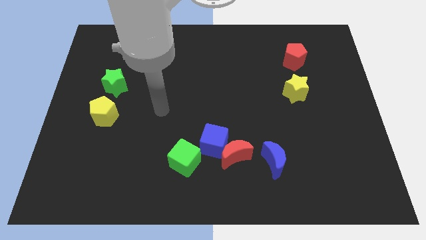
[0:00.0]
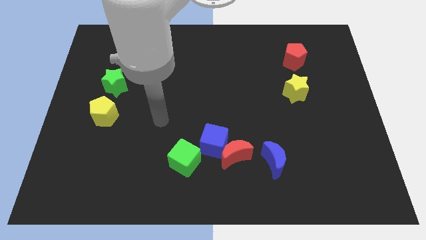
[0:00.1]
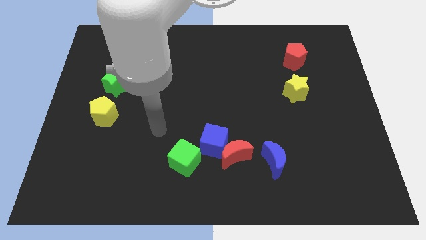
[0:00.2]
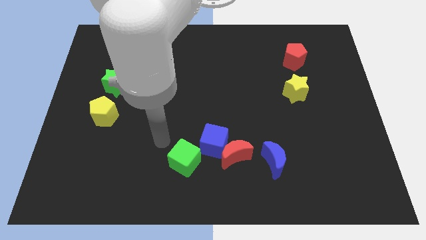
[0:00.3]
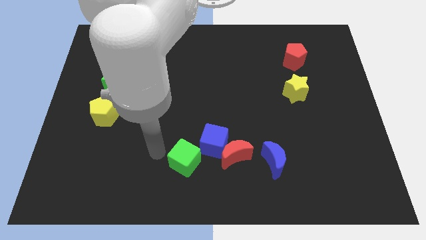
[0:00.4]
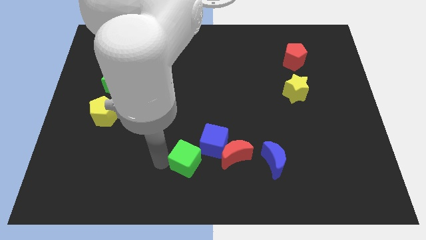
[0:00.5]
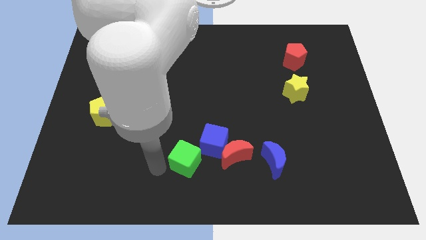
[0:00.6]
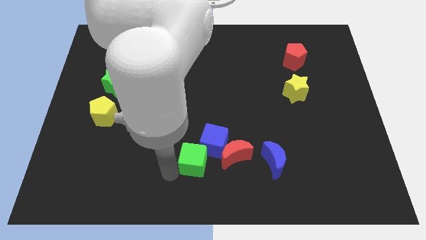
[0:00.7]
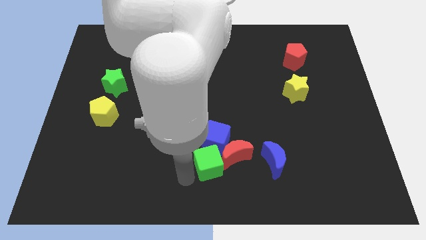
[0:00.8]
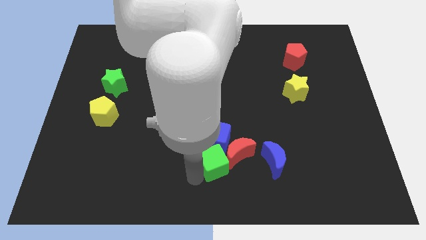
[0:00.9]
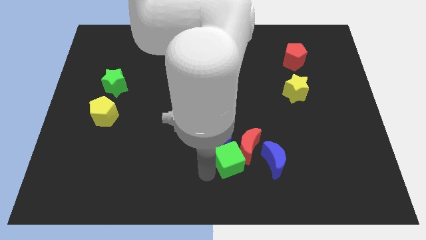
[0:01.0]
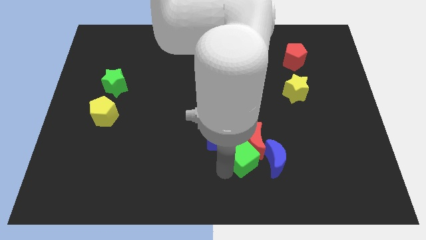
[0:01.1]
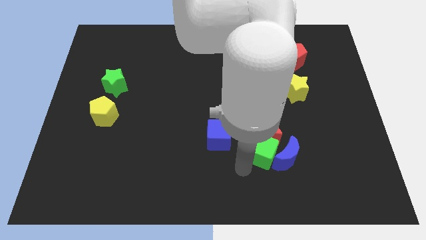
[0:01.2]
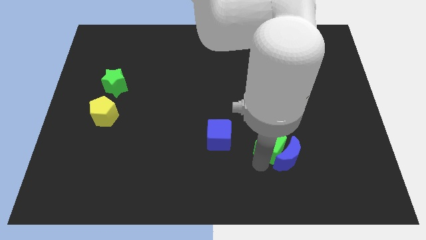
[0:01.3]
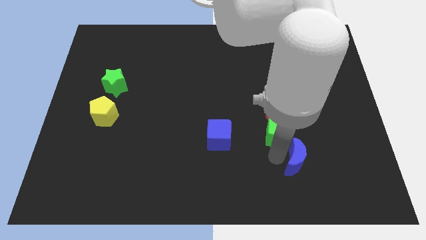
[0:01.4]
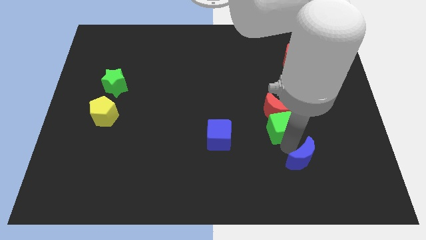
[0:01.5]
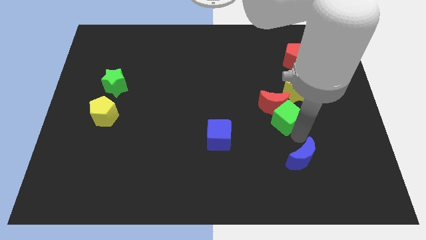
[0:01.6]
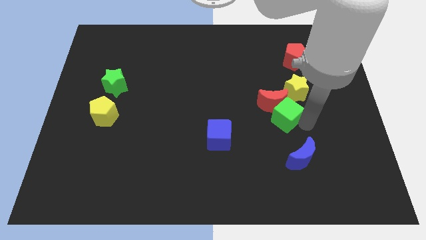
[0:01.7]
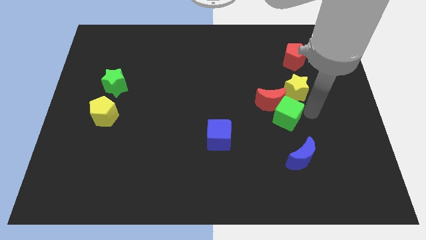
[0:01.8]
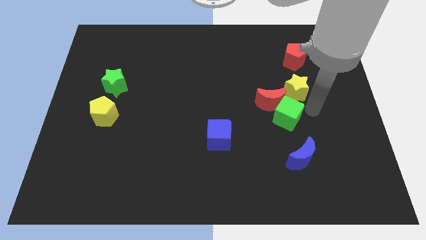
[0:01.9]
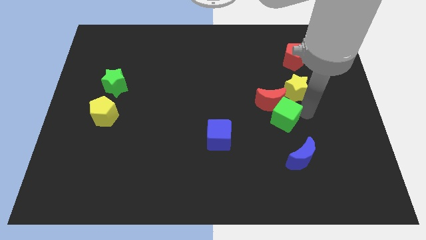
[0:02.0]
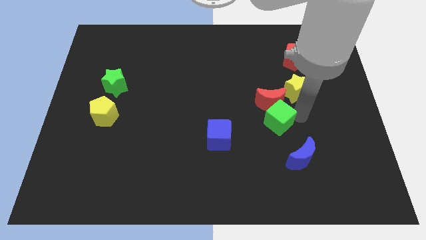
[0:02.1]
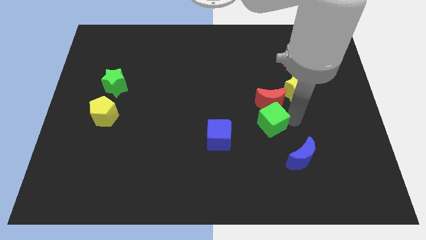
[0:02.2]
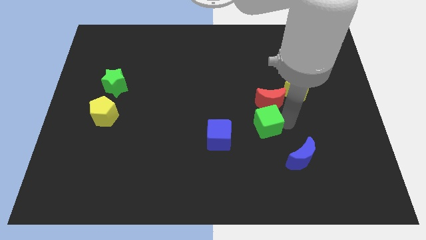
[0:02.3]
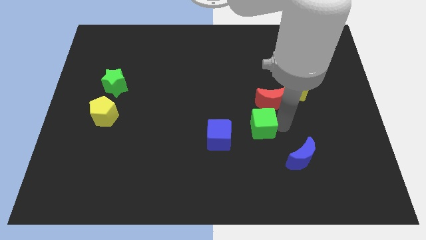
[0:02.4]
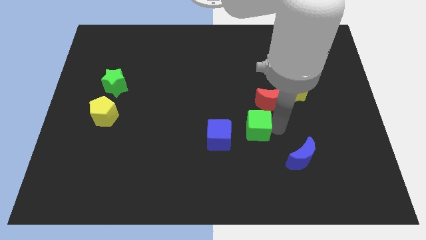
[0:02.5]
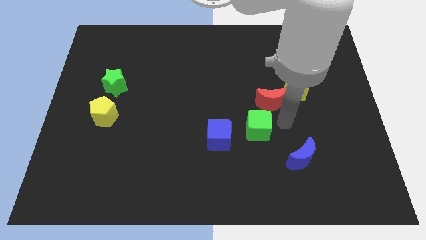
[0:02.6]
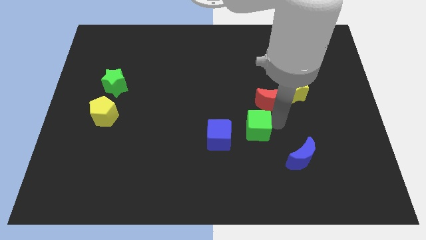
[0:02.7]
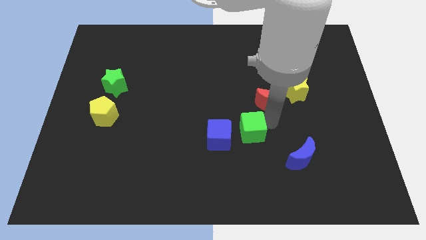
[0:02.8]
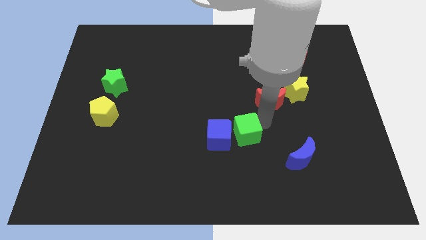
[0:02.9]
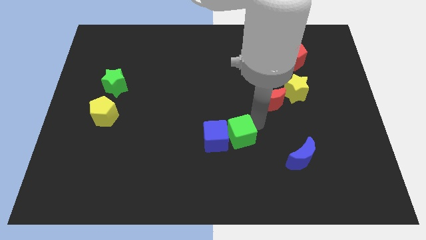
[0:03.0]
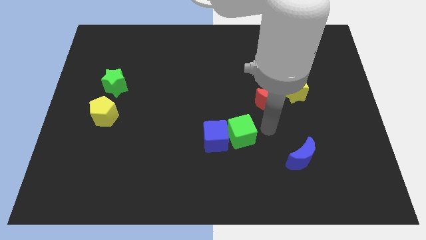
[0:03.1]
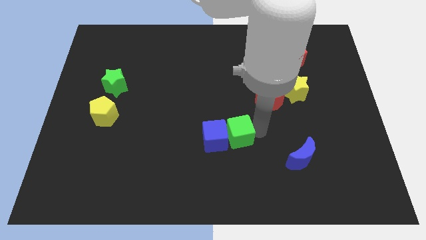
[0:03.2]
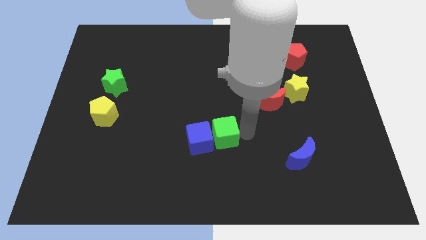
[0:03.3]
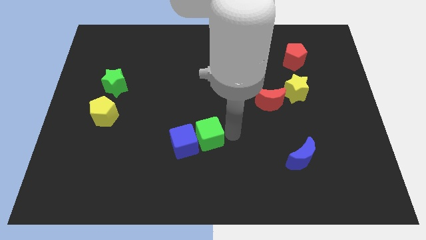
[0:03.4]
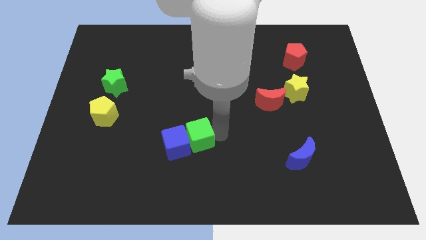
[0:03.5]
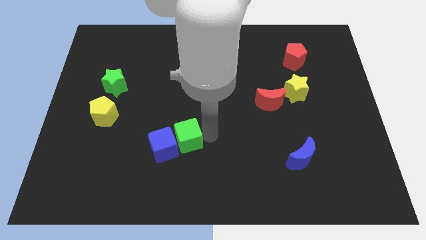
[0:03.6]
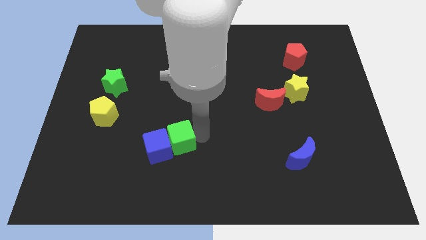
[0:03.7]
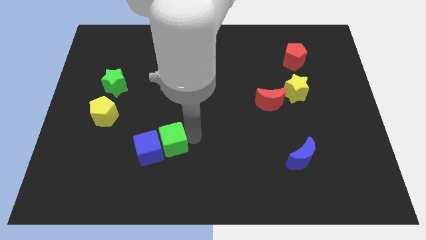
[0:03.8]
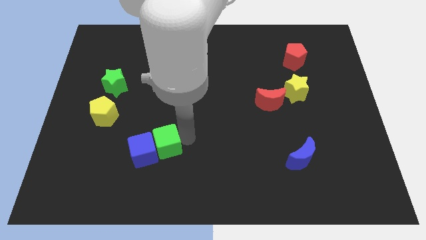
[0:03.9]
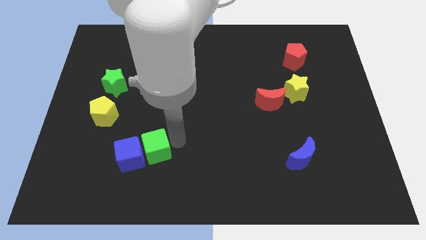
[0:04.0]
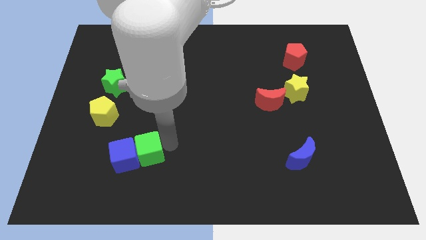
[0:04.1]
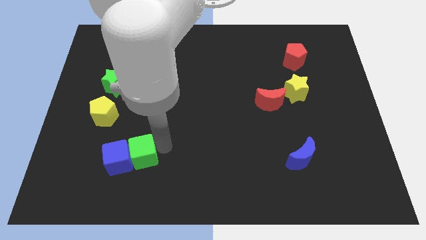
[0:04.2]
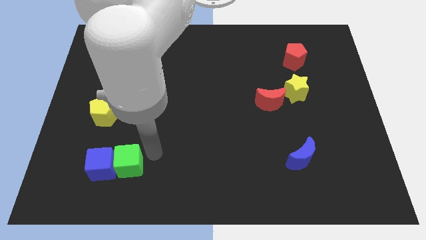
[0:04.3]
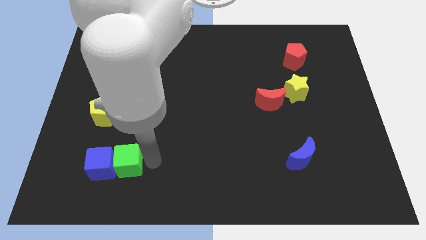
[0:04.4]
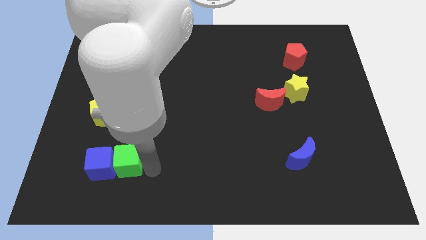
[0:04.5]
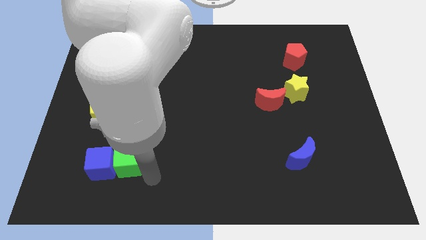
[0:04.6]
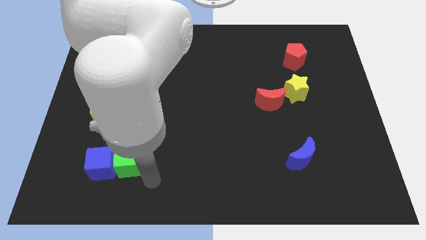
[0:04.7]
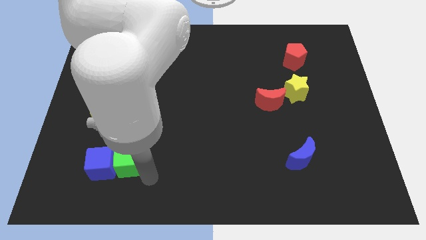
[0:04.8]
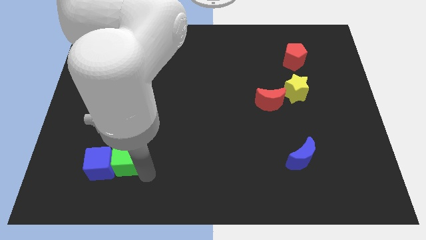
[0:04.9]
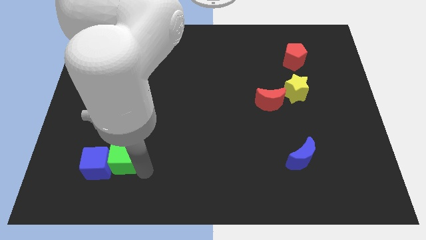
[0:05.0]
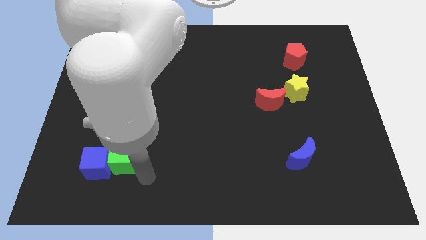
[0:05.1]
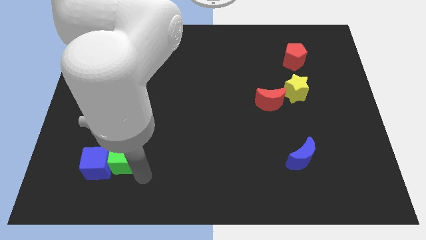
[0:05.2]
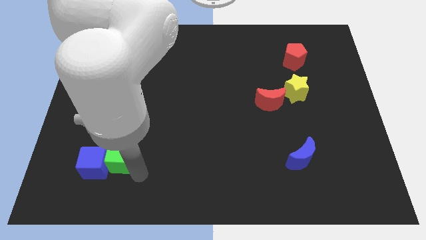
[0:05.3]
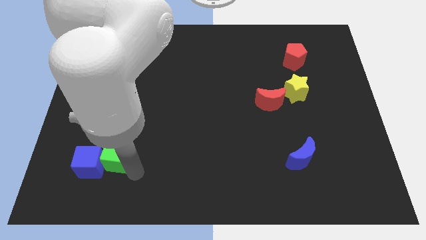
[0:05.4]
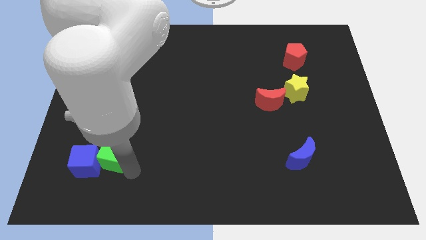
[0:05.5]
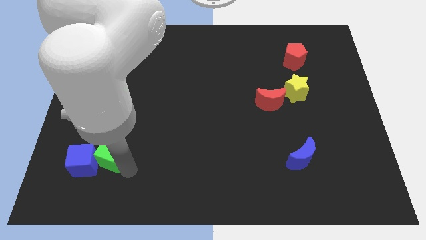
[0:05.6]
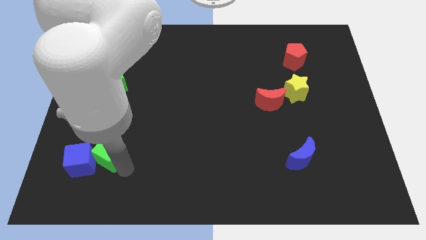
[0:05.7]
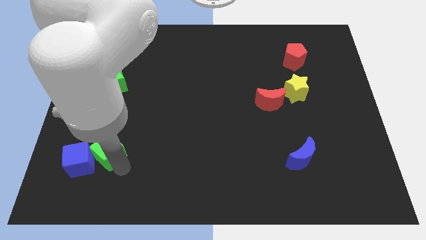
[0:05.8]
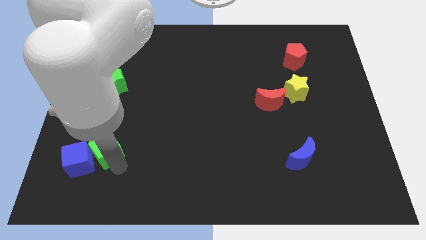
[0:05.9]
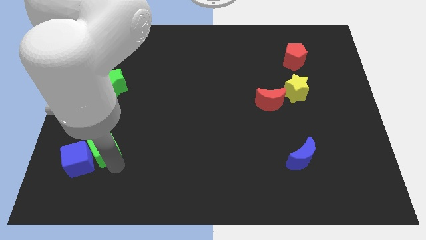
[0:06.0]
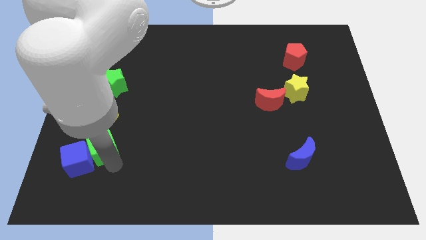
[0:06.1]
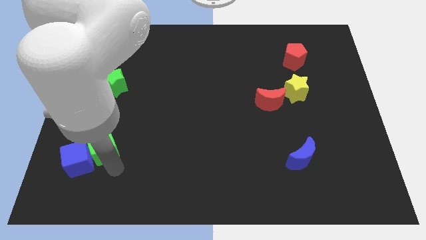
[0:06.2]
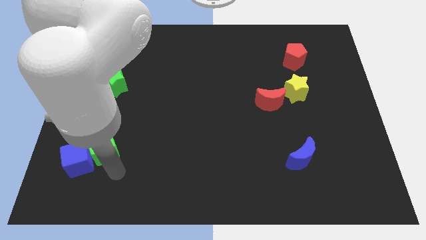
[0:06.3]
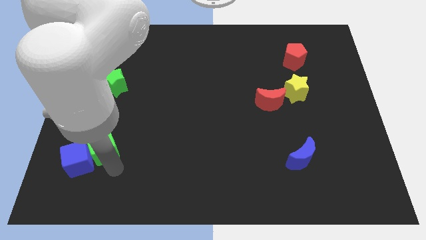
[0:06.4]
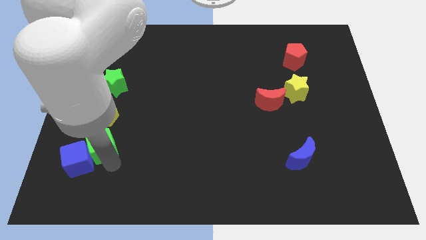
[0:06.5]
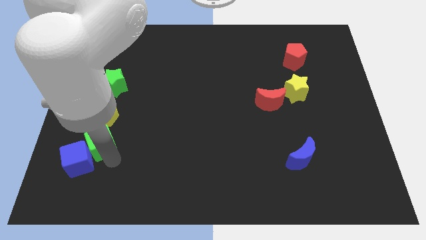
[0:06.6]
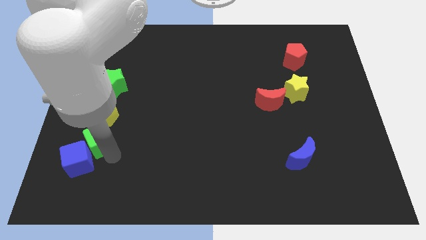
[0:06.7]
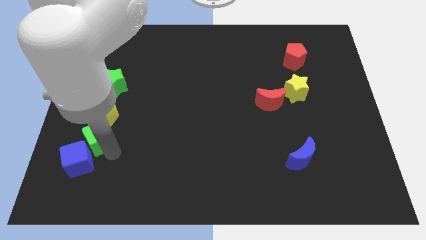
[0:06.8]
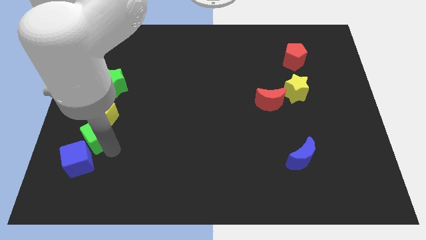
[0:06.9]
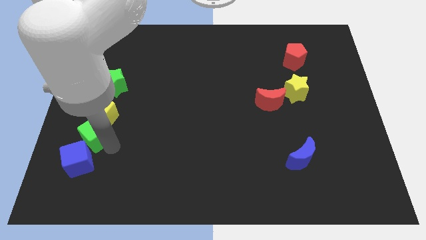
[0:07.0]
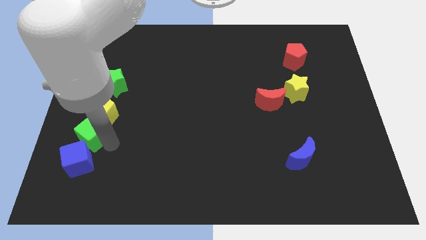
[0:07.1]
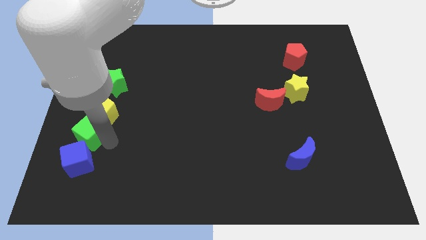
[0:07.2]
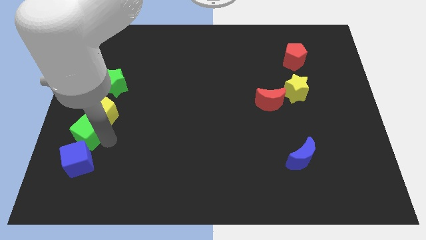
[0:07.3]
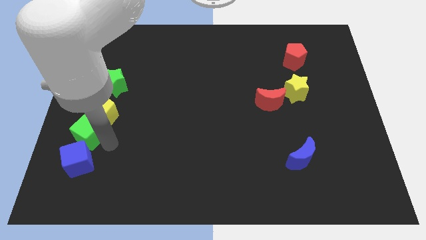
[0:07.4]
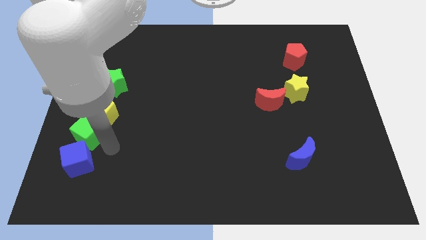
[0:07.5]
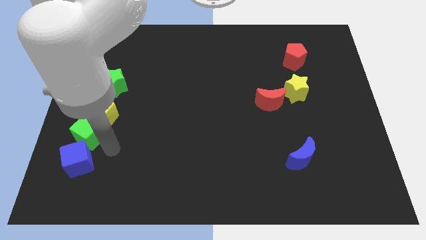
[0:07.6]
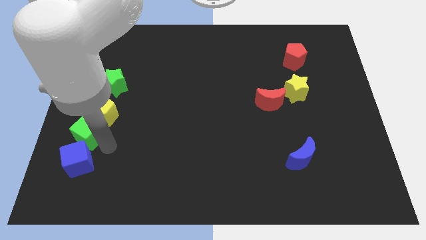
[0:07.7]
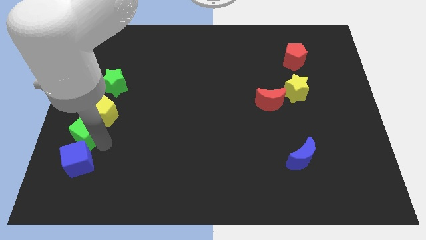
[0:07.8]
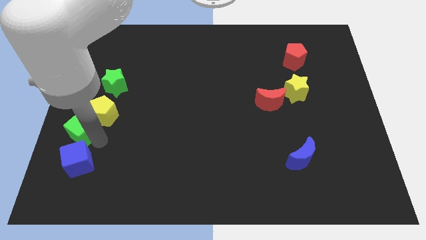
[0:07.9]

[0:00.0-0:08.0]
move the green cube to the center left
